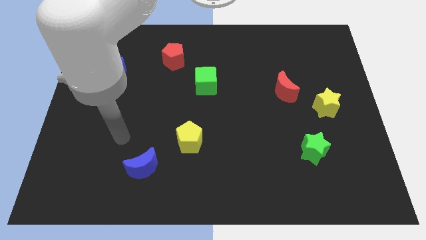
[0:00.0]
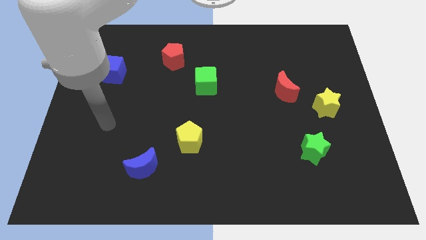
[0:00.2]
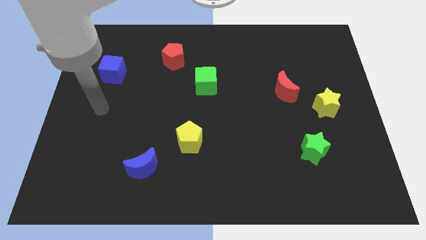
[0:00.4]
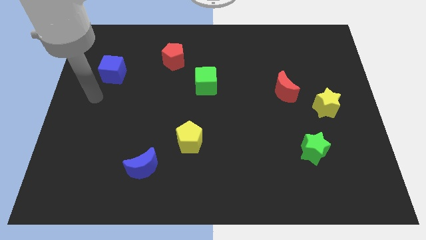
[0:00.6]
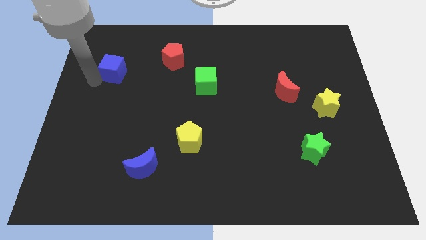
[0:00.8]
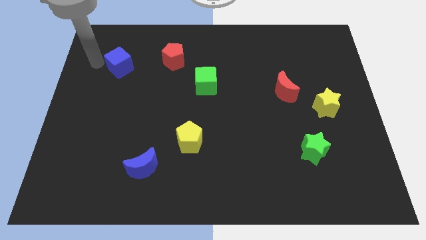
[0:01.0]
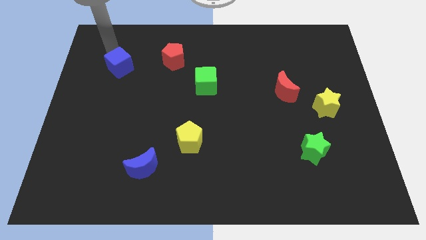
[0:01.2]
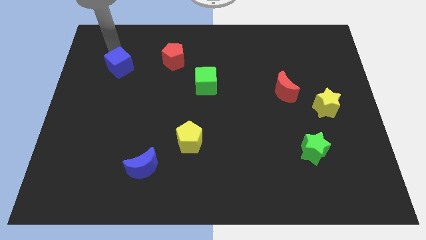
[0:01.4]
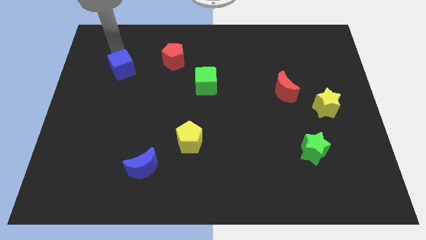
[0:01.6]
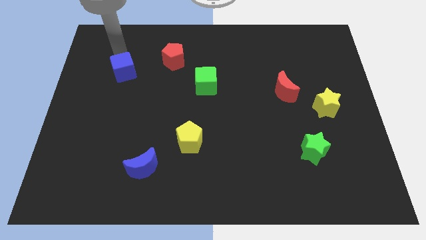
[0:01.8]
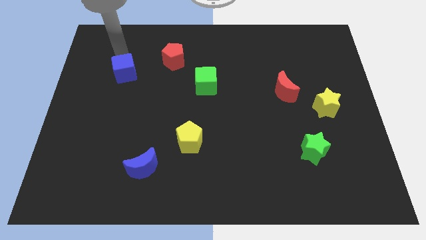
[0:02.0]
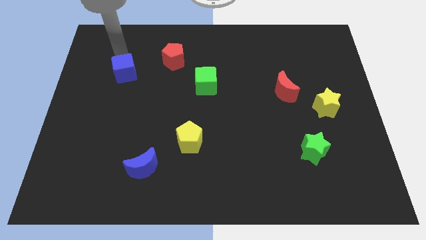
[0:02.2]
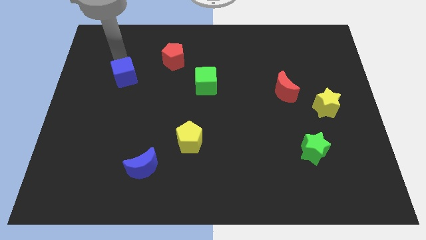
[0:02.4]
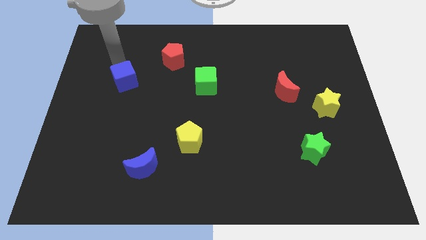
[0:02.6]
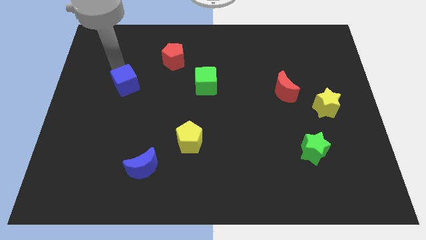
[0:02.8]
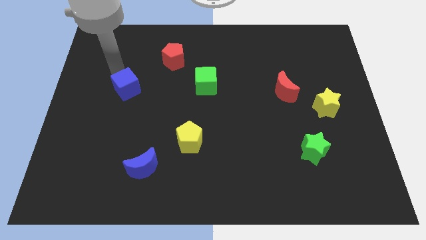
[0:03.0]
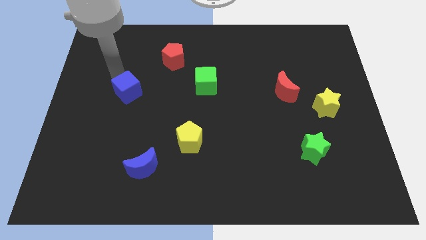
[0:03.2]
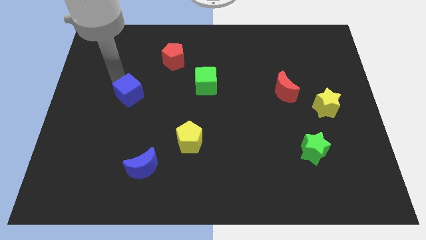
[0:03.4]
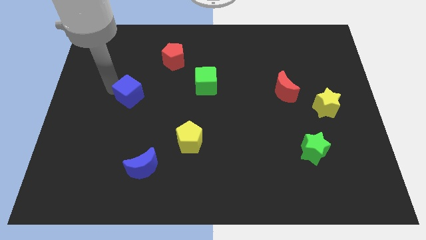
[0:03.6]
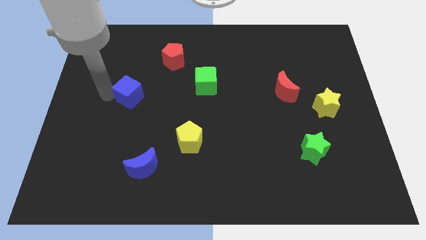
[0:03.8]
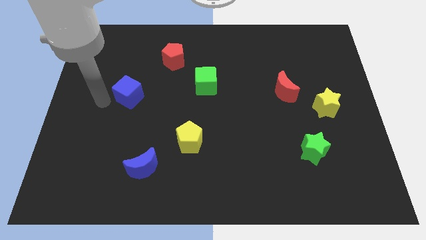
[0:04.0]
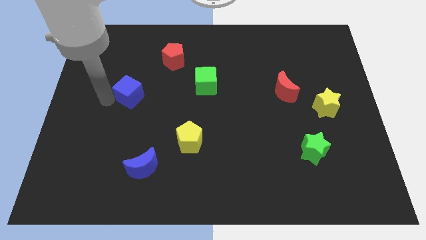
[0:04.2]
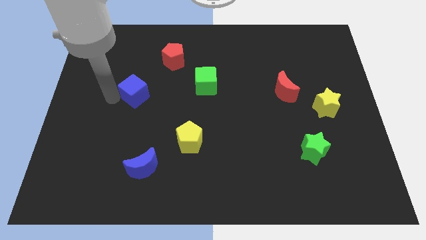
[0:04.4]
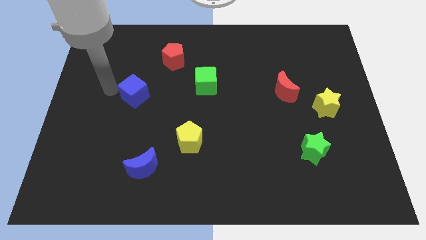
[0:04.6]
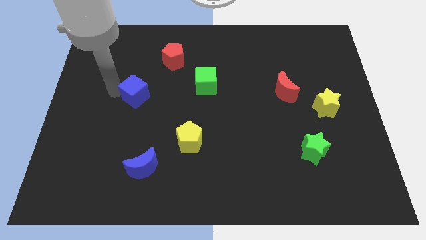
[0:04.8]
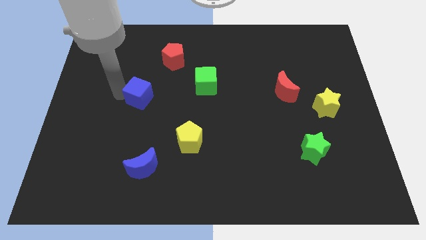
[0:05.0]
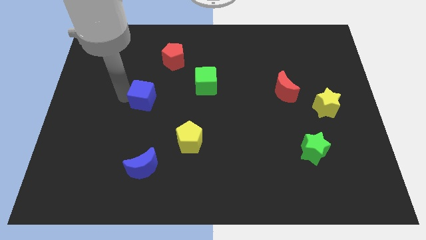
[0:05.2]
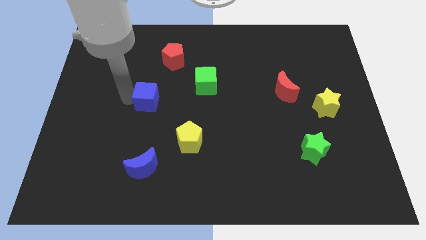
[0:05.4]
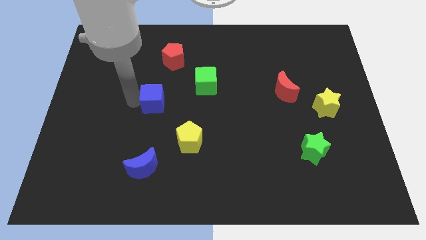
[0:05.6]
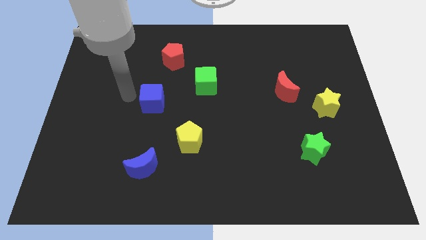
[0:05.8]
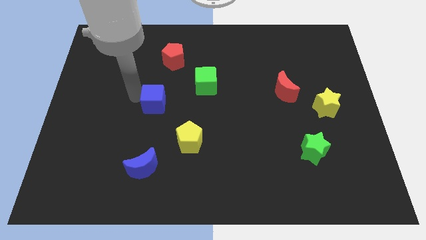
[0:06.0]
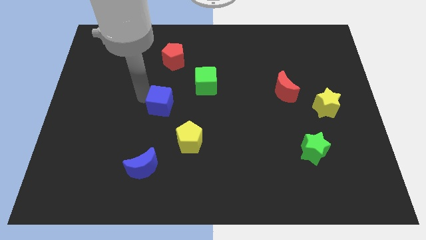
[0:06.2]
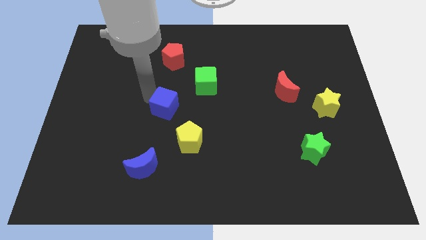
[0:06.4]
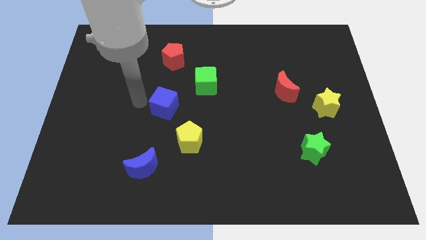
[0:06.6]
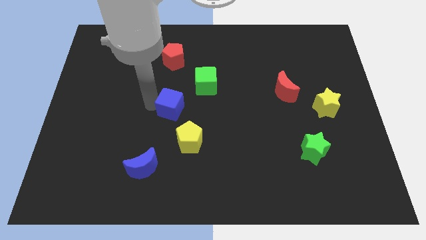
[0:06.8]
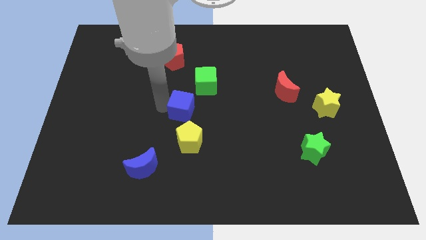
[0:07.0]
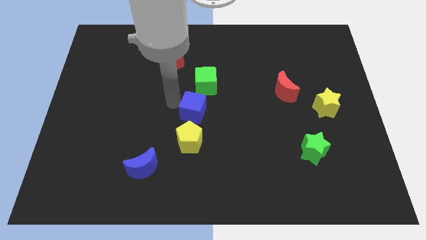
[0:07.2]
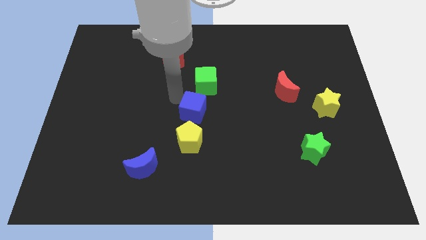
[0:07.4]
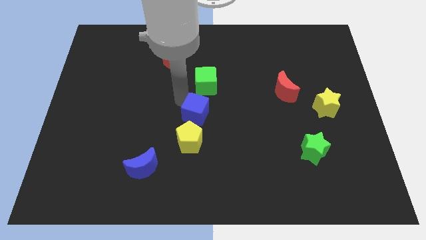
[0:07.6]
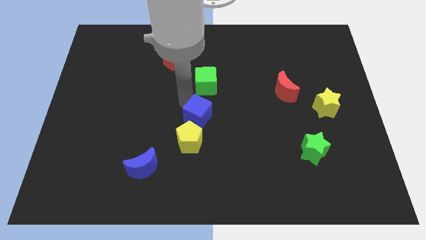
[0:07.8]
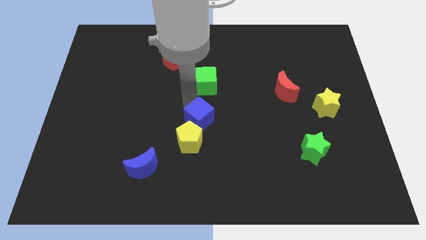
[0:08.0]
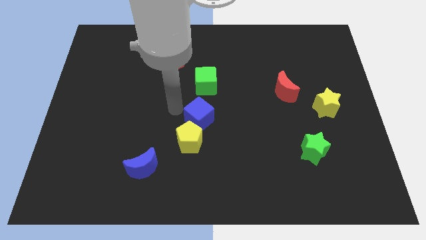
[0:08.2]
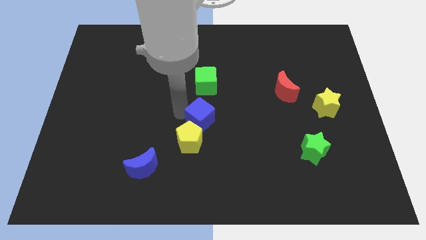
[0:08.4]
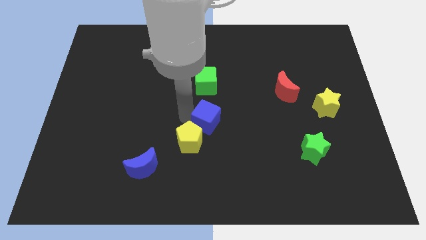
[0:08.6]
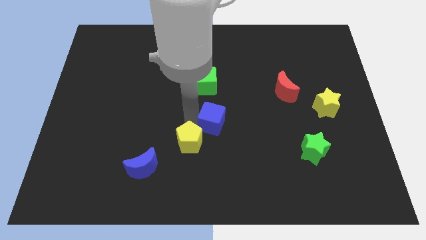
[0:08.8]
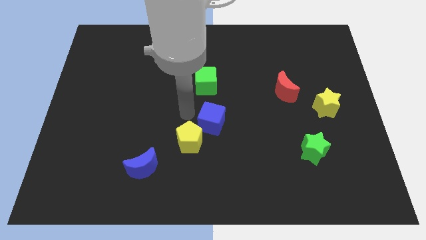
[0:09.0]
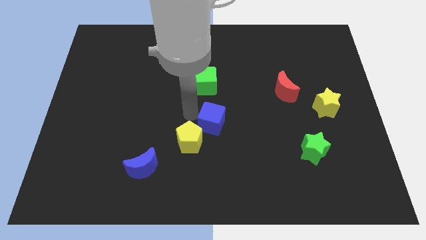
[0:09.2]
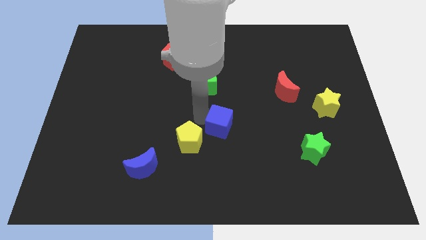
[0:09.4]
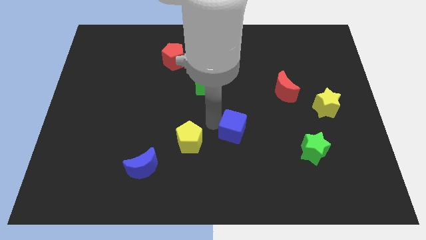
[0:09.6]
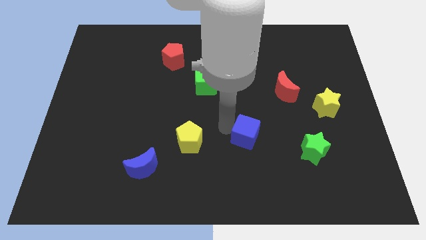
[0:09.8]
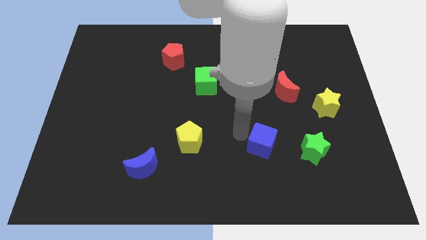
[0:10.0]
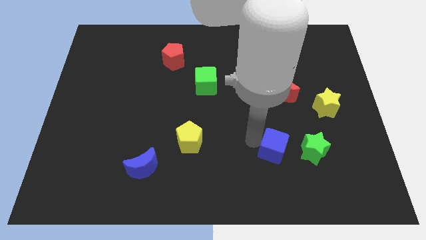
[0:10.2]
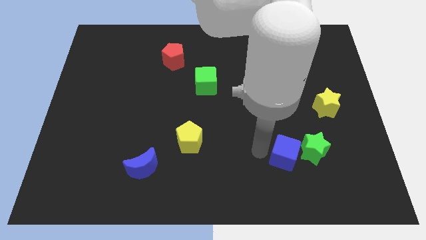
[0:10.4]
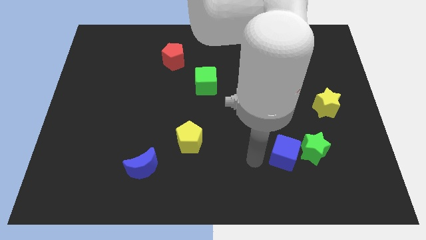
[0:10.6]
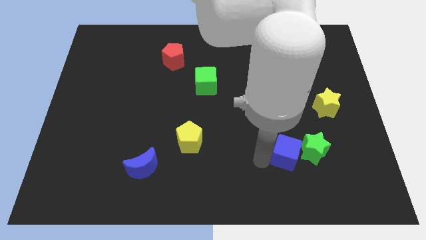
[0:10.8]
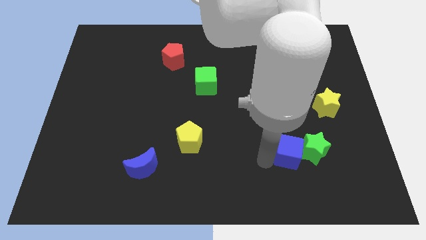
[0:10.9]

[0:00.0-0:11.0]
put the blue cube to the green star

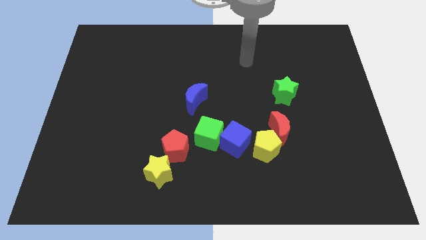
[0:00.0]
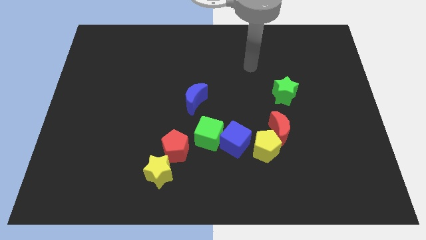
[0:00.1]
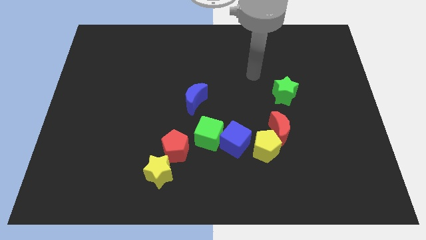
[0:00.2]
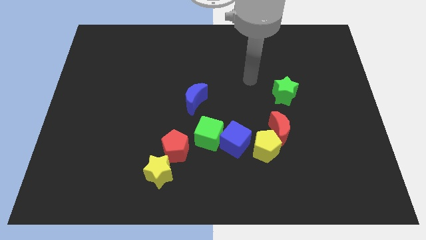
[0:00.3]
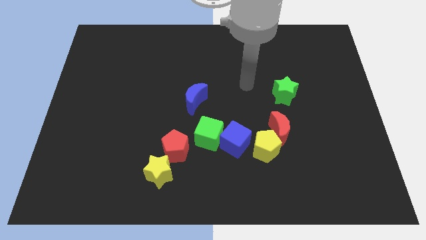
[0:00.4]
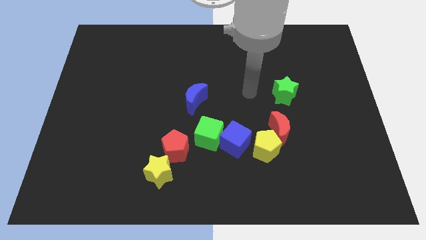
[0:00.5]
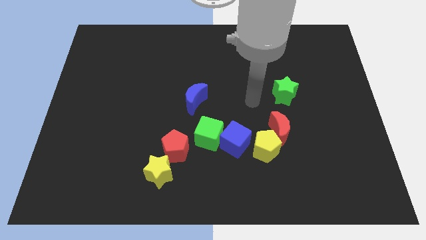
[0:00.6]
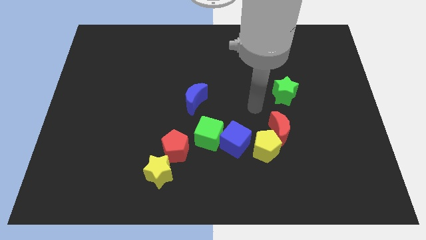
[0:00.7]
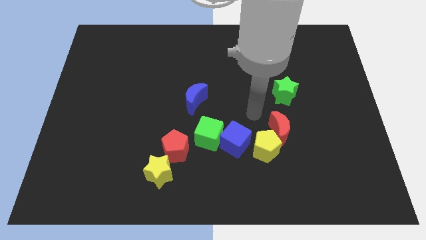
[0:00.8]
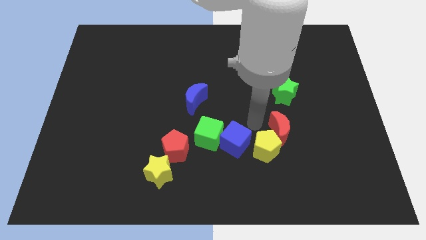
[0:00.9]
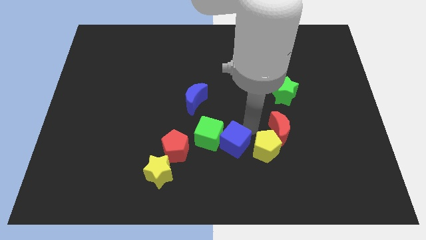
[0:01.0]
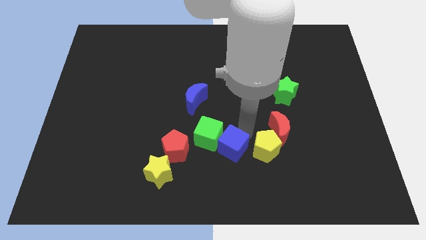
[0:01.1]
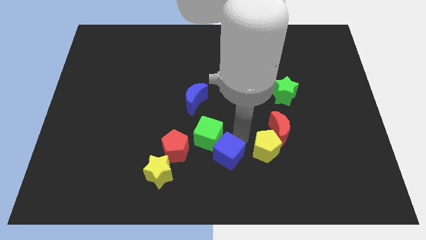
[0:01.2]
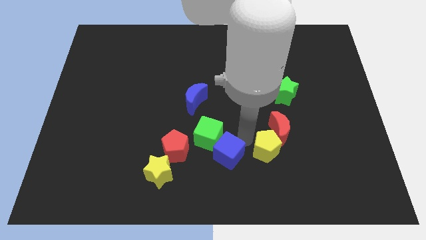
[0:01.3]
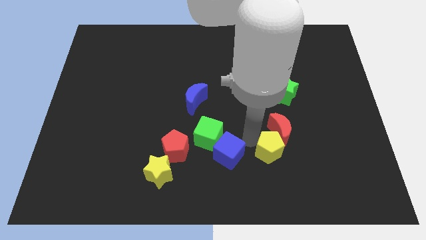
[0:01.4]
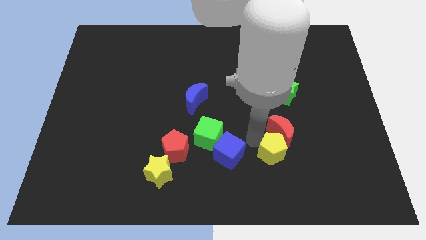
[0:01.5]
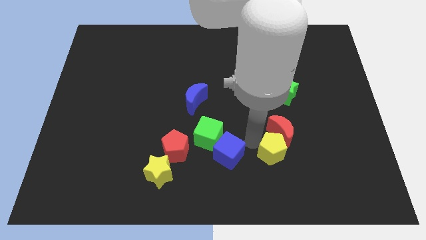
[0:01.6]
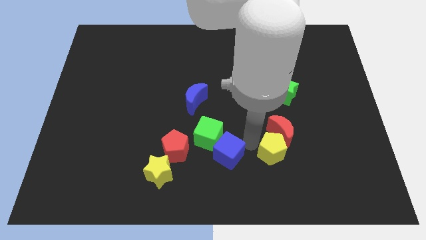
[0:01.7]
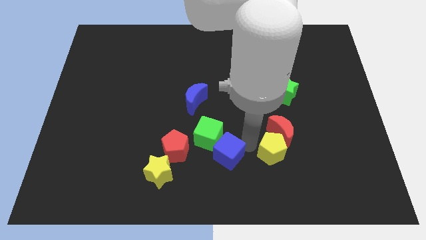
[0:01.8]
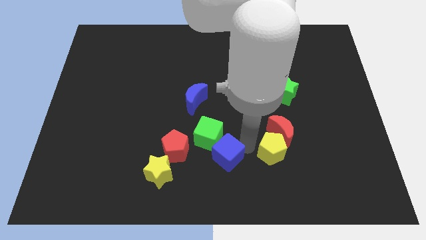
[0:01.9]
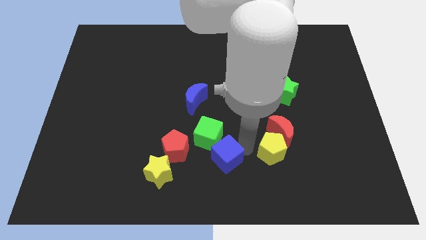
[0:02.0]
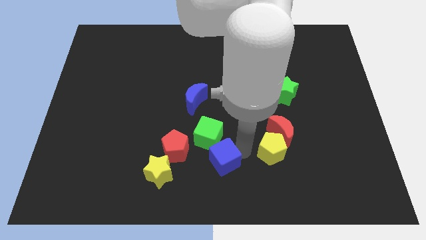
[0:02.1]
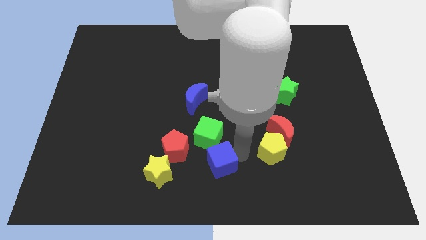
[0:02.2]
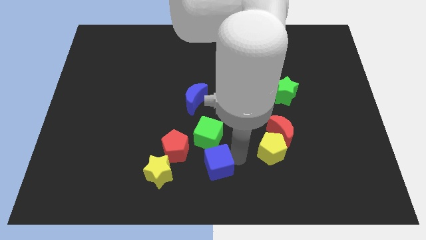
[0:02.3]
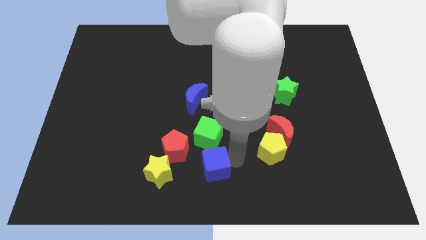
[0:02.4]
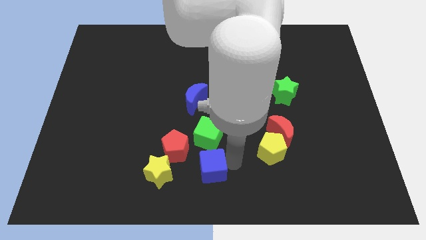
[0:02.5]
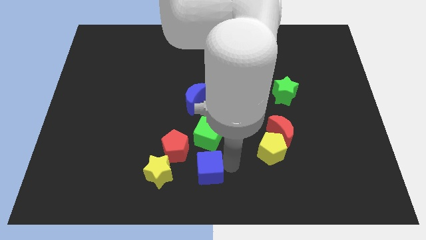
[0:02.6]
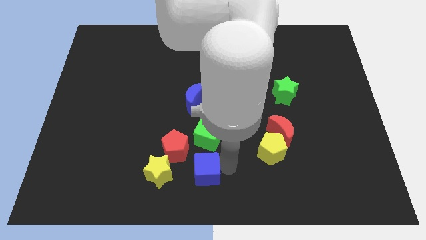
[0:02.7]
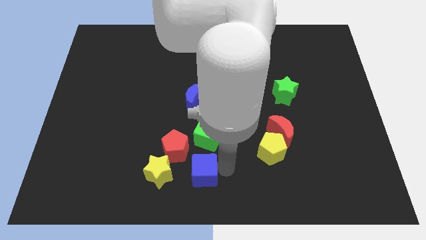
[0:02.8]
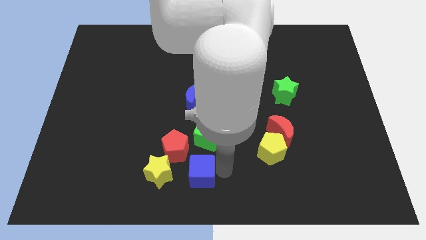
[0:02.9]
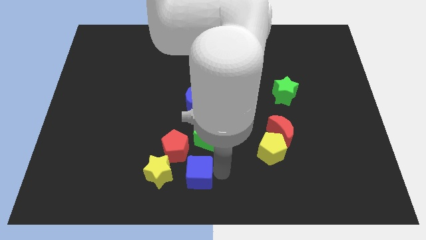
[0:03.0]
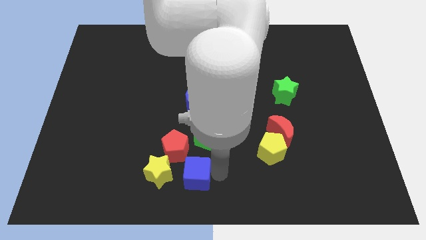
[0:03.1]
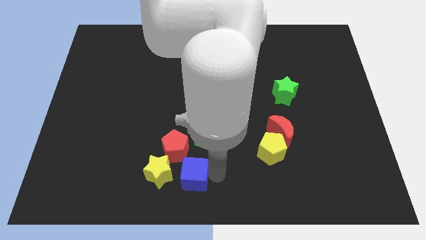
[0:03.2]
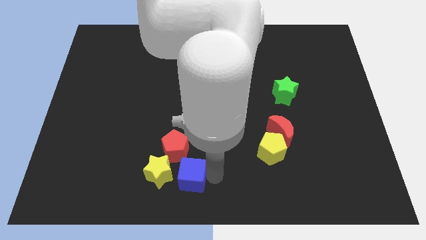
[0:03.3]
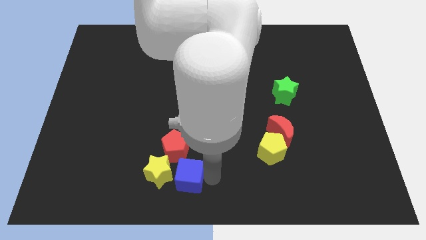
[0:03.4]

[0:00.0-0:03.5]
push the blue cube towards the yellow star
